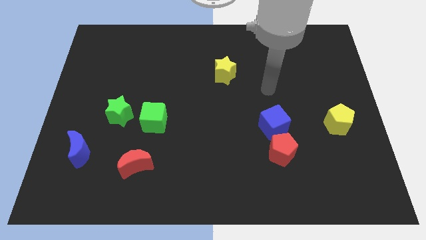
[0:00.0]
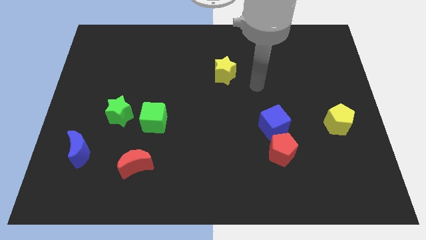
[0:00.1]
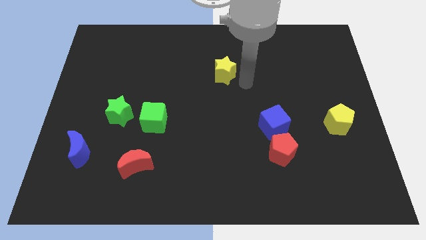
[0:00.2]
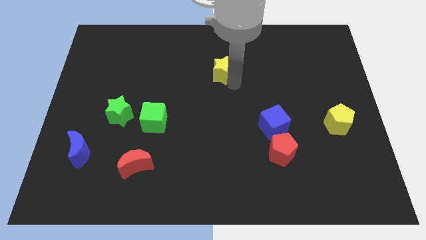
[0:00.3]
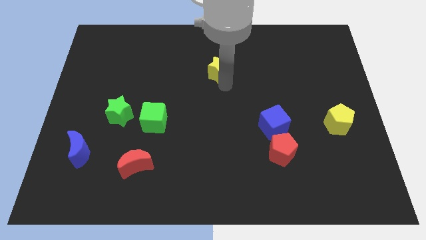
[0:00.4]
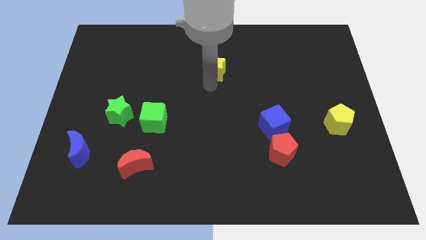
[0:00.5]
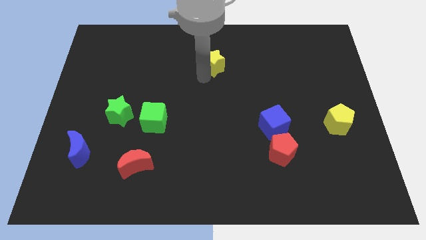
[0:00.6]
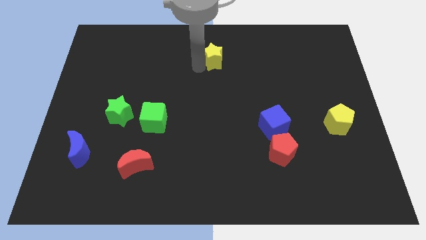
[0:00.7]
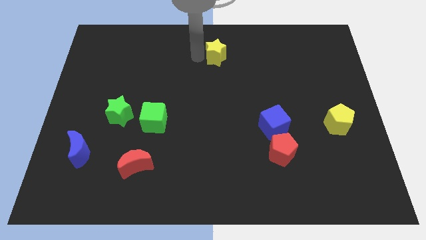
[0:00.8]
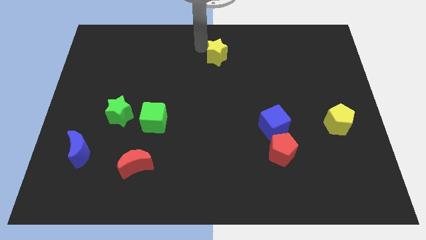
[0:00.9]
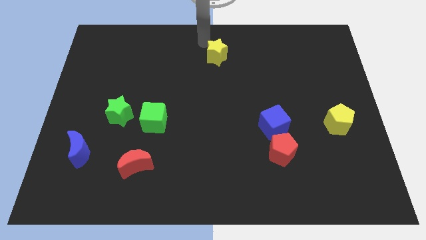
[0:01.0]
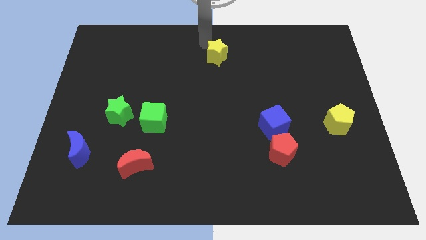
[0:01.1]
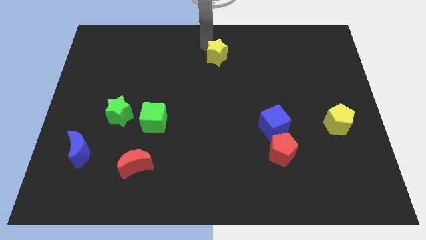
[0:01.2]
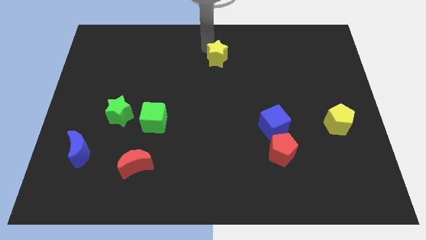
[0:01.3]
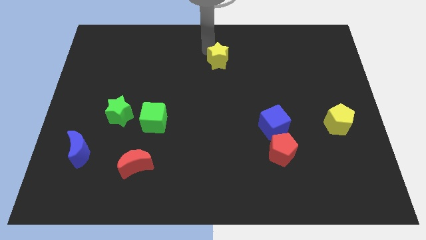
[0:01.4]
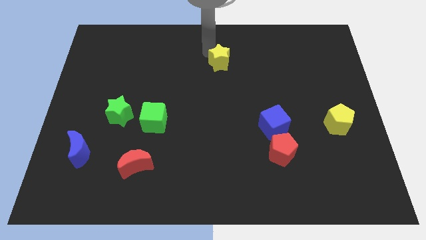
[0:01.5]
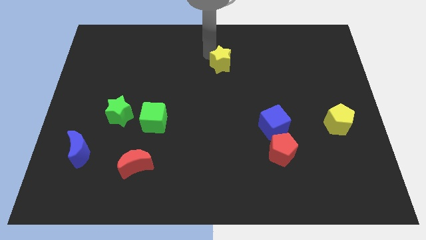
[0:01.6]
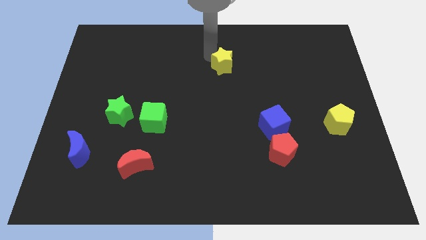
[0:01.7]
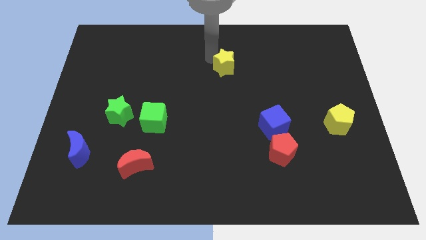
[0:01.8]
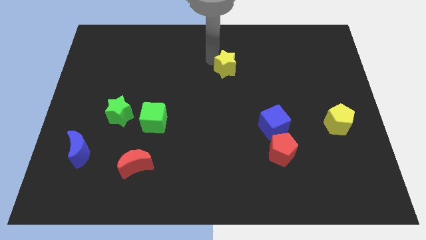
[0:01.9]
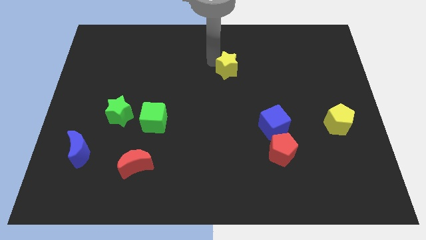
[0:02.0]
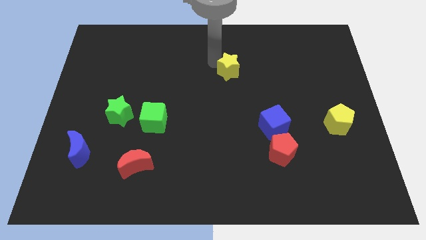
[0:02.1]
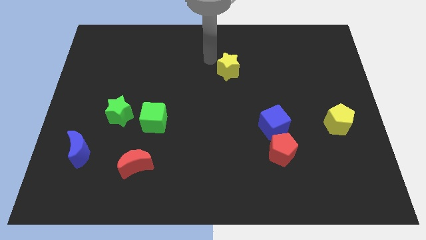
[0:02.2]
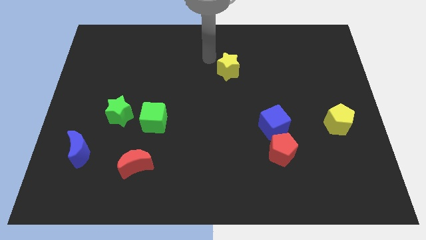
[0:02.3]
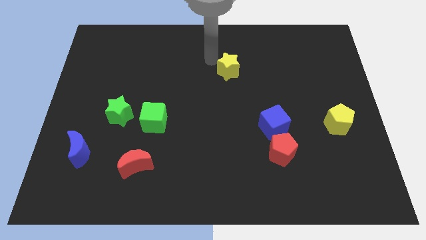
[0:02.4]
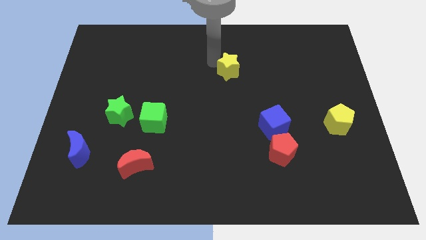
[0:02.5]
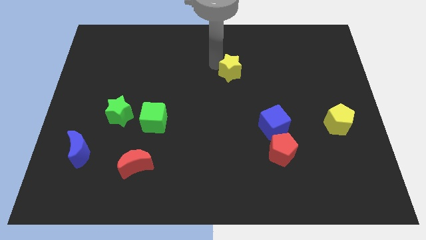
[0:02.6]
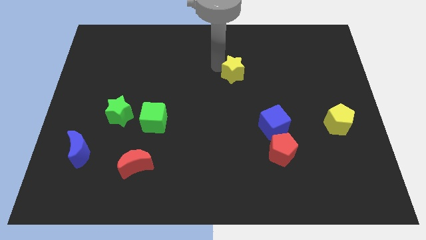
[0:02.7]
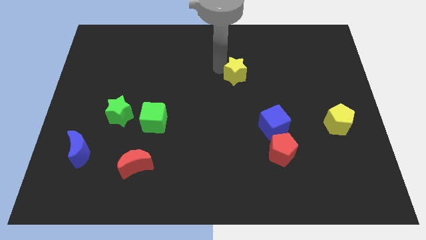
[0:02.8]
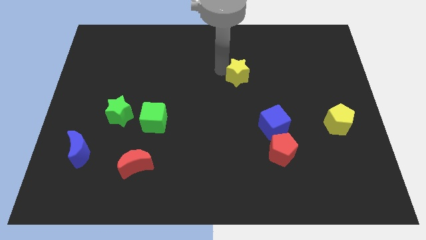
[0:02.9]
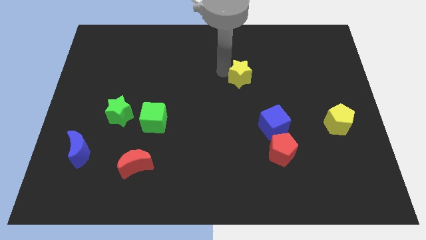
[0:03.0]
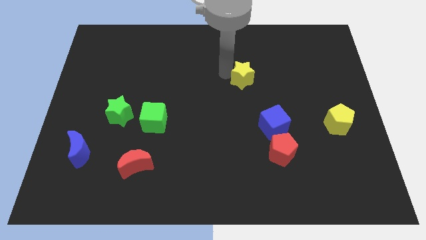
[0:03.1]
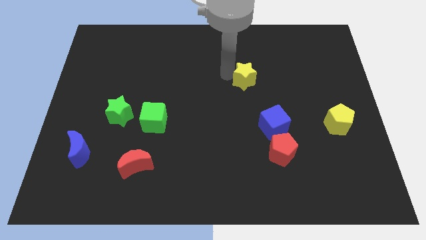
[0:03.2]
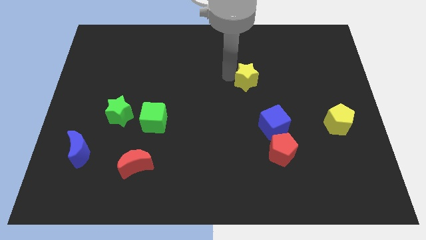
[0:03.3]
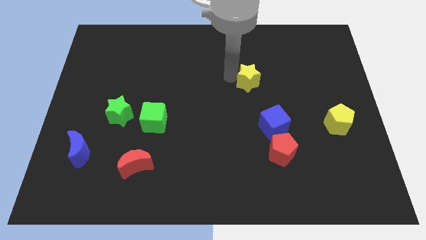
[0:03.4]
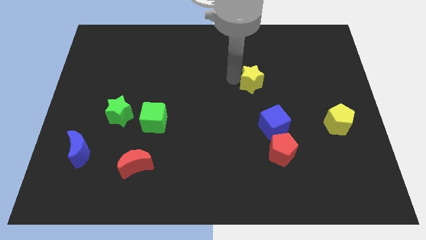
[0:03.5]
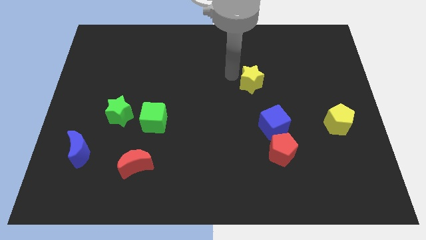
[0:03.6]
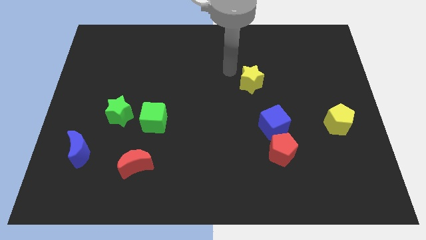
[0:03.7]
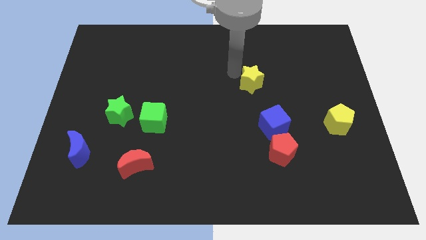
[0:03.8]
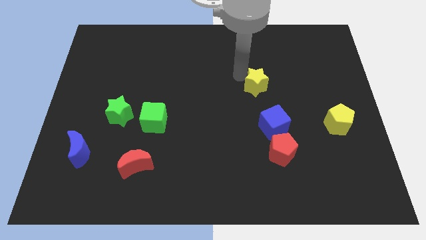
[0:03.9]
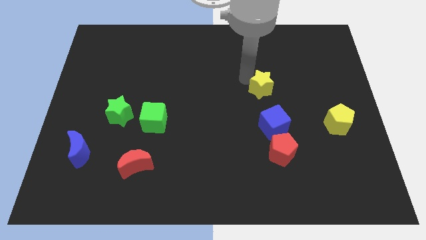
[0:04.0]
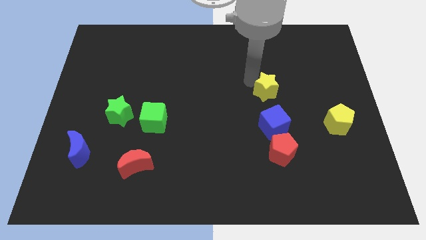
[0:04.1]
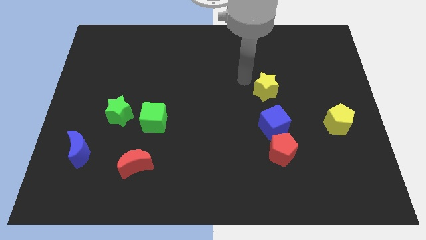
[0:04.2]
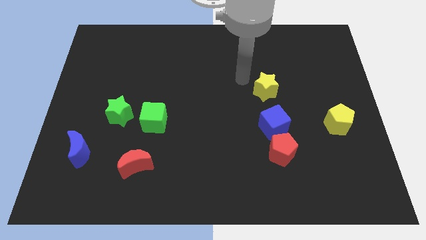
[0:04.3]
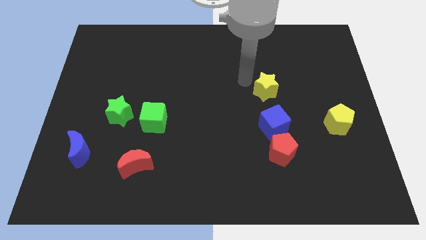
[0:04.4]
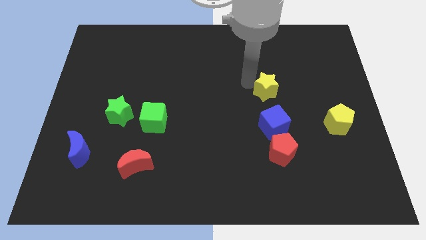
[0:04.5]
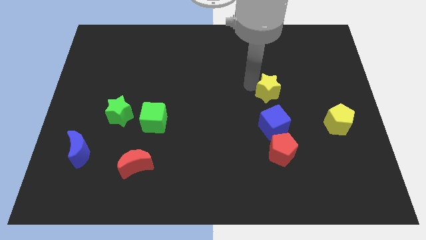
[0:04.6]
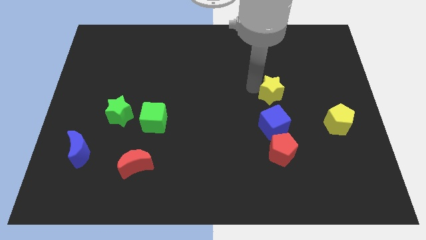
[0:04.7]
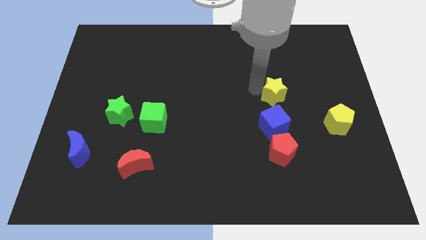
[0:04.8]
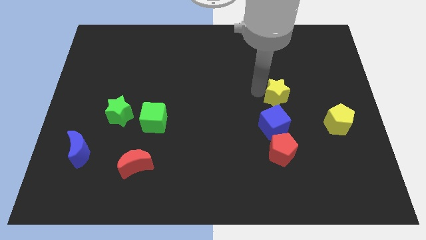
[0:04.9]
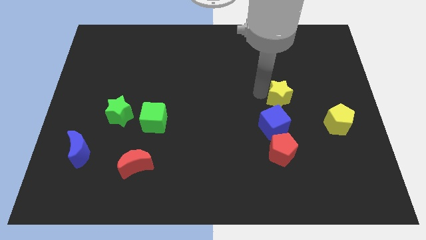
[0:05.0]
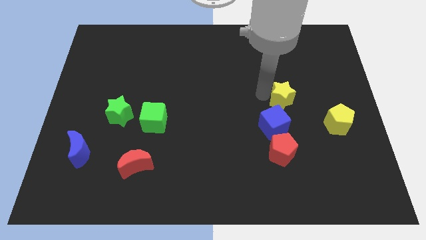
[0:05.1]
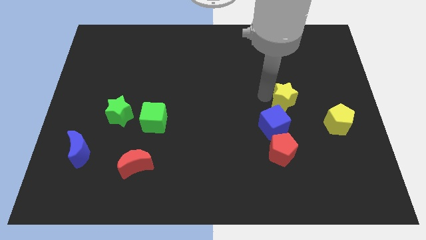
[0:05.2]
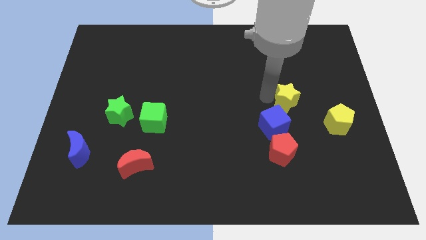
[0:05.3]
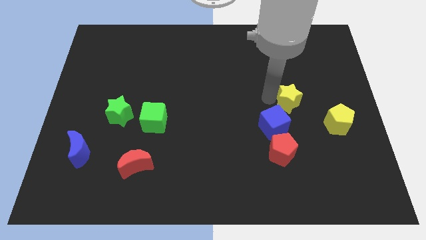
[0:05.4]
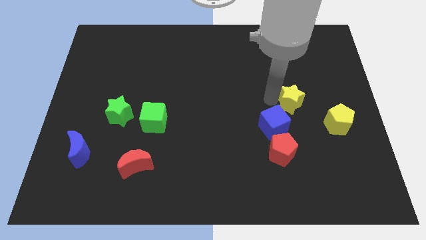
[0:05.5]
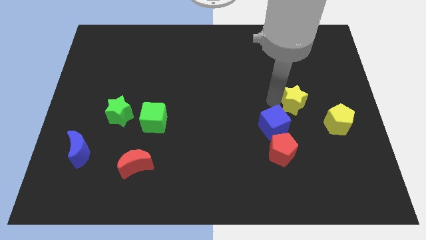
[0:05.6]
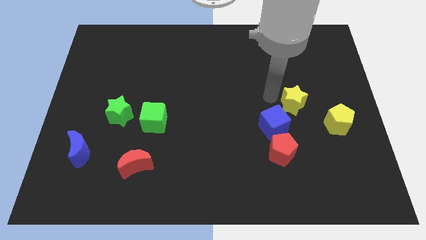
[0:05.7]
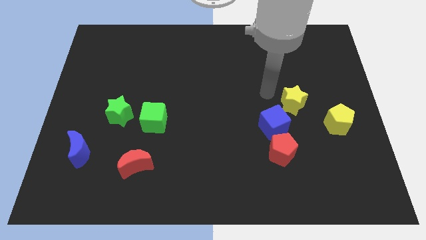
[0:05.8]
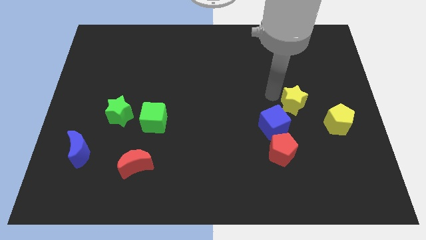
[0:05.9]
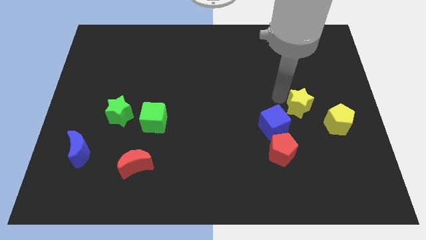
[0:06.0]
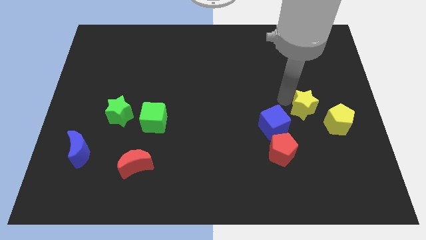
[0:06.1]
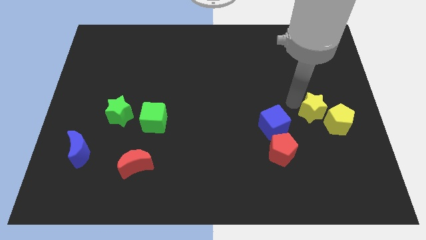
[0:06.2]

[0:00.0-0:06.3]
slide the yellow star to the yellow pentagon
